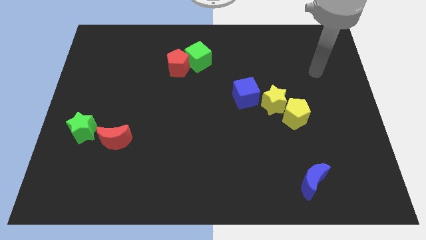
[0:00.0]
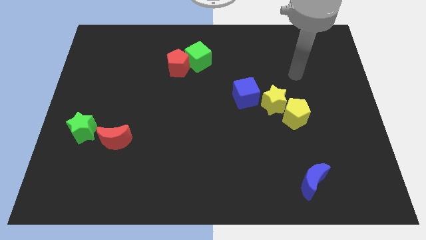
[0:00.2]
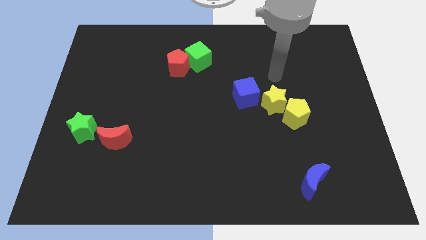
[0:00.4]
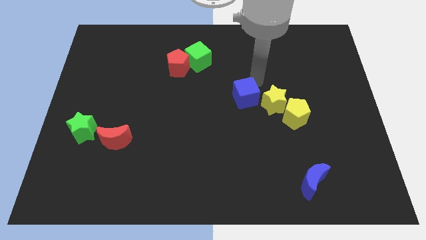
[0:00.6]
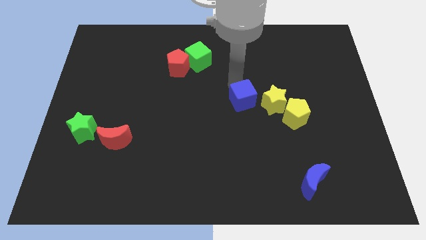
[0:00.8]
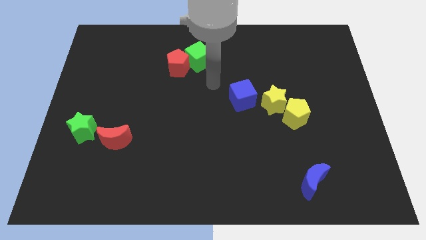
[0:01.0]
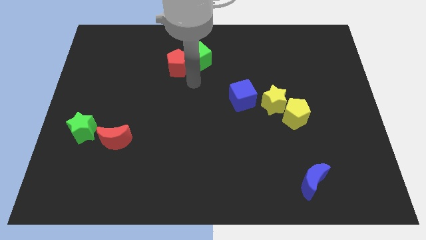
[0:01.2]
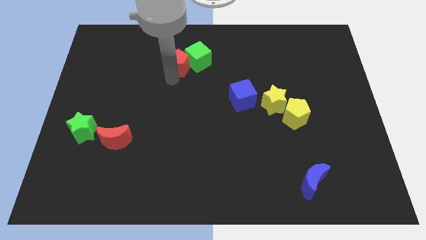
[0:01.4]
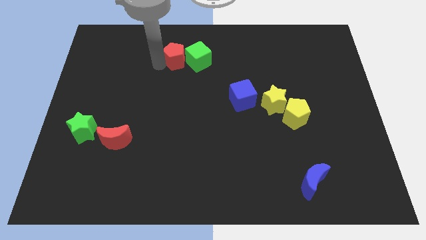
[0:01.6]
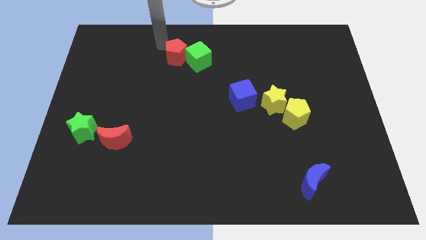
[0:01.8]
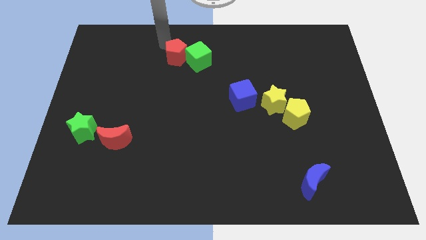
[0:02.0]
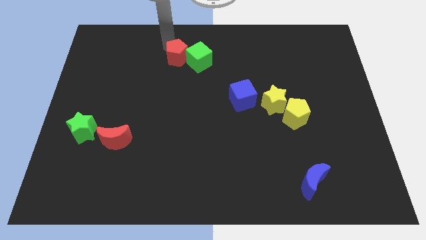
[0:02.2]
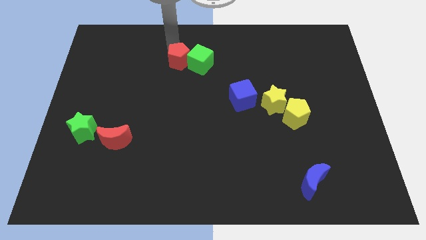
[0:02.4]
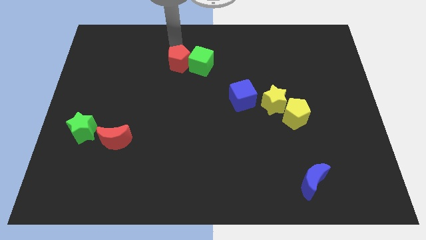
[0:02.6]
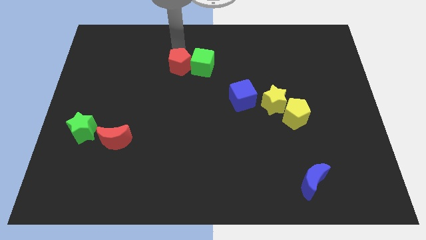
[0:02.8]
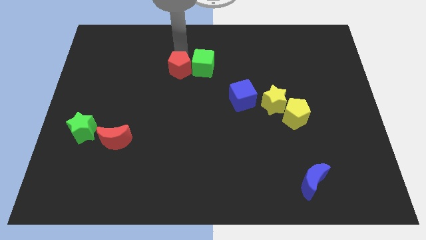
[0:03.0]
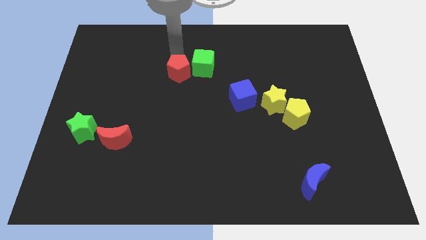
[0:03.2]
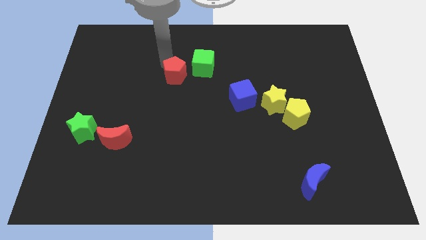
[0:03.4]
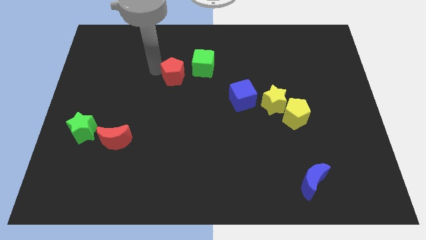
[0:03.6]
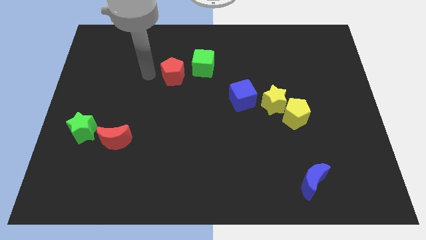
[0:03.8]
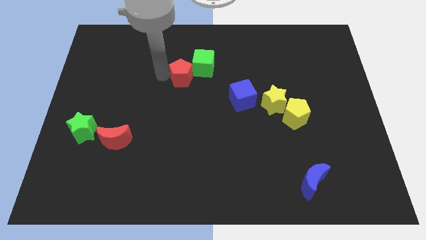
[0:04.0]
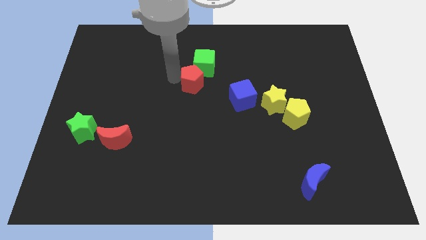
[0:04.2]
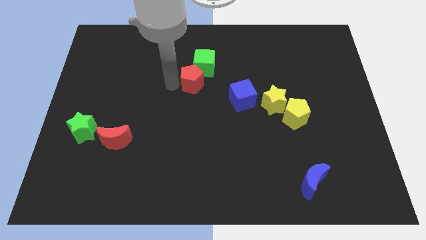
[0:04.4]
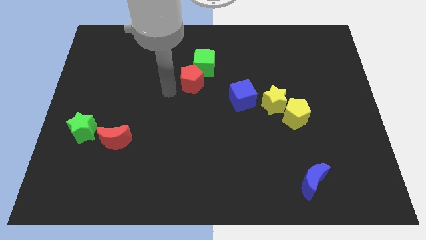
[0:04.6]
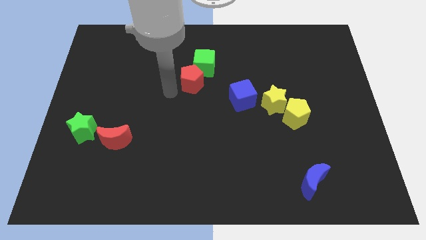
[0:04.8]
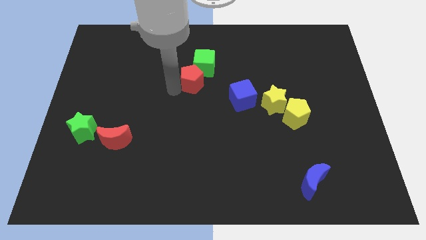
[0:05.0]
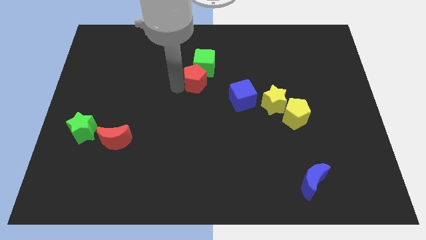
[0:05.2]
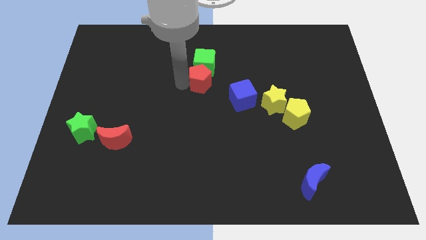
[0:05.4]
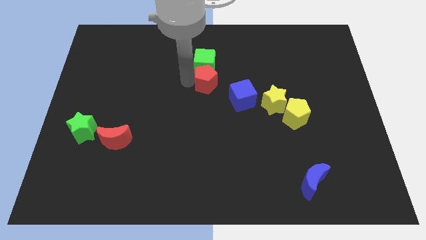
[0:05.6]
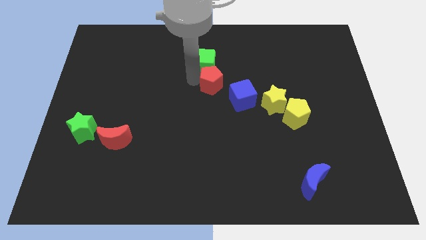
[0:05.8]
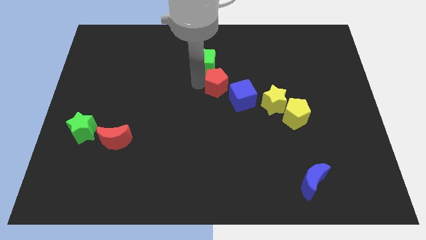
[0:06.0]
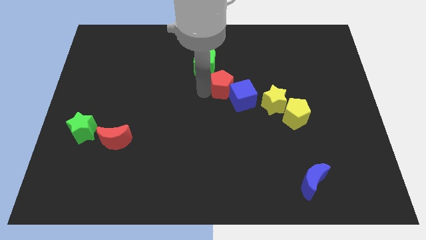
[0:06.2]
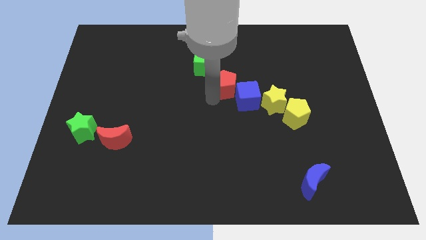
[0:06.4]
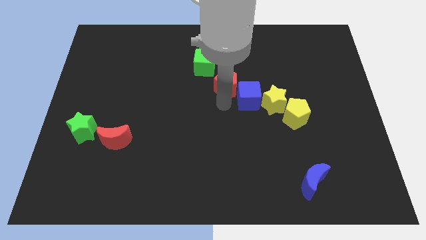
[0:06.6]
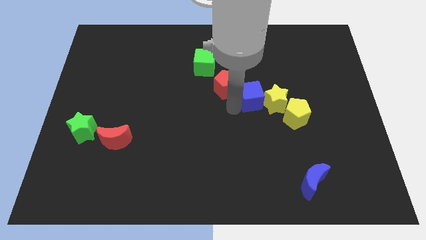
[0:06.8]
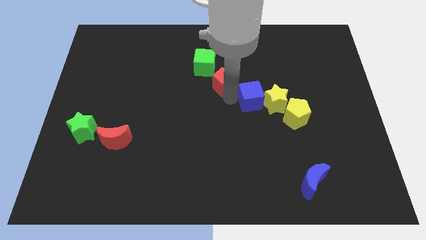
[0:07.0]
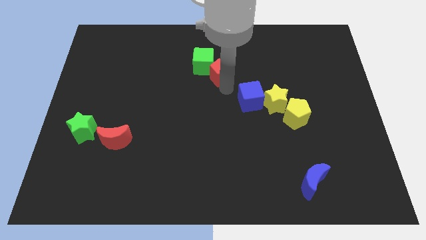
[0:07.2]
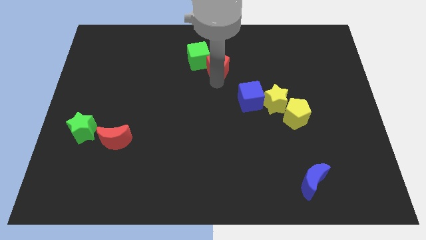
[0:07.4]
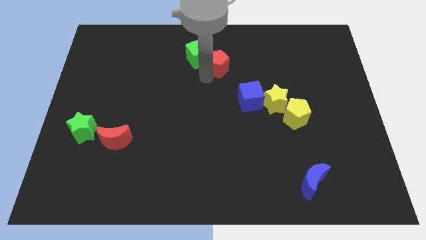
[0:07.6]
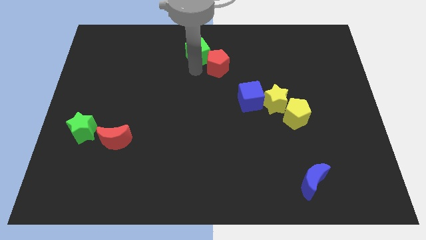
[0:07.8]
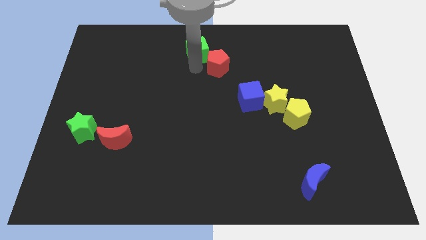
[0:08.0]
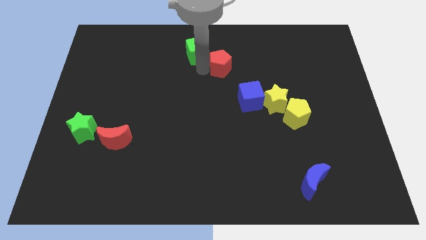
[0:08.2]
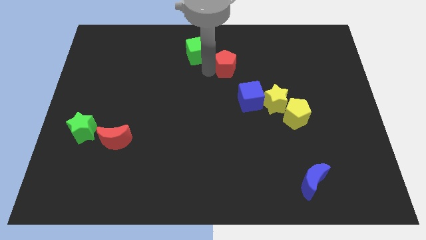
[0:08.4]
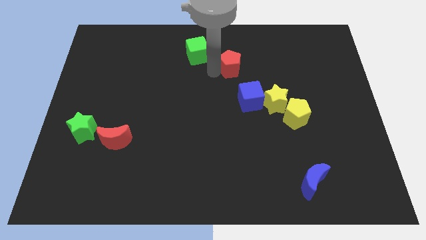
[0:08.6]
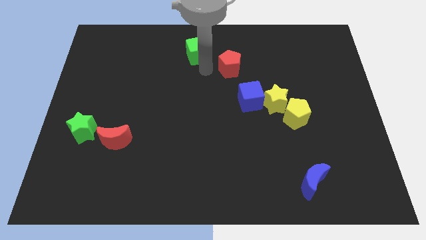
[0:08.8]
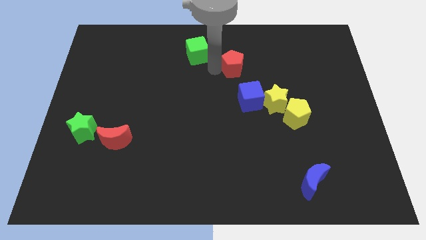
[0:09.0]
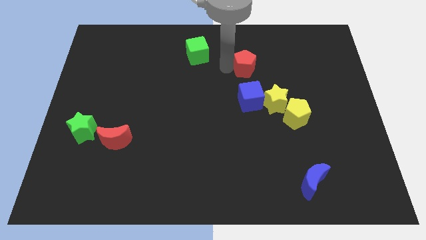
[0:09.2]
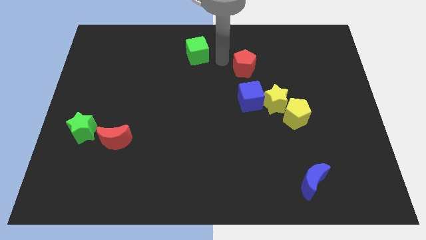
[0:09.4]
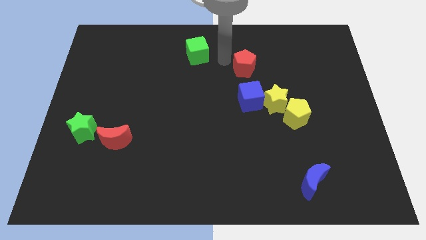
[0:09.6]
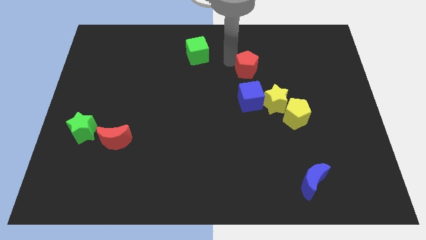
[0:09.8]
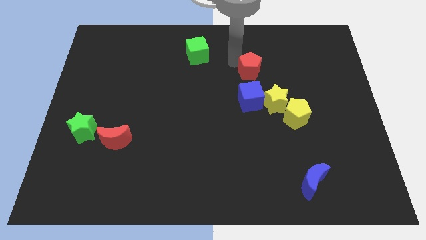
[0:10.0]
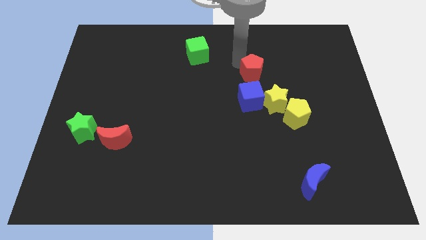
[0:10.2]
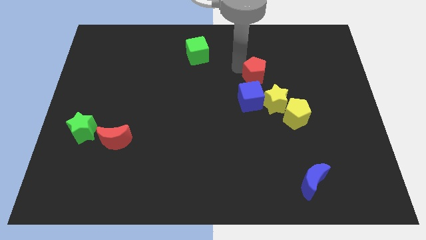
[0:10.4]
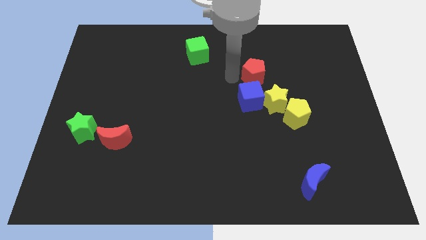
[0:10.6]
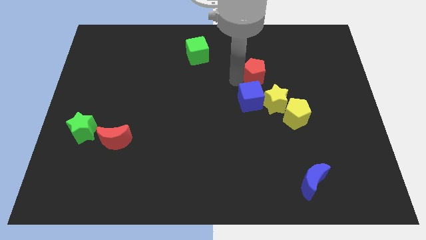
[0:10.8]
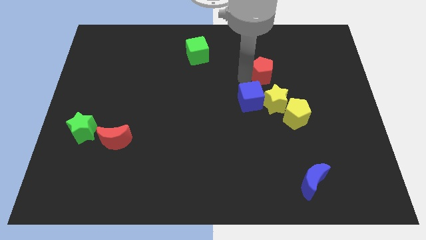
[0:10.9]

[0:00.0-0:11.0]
push the red pentagon to the right

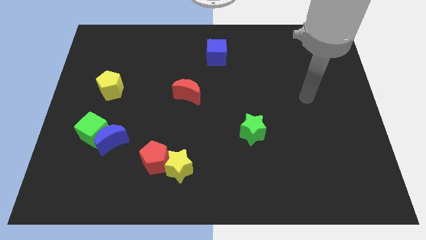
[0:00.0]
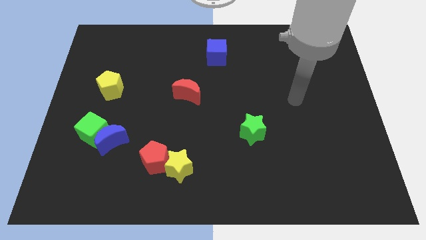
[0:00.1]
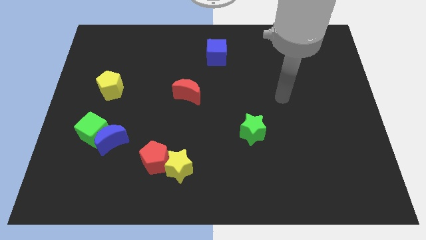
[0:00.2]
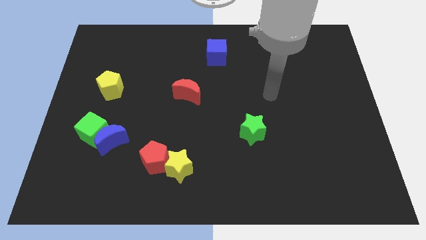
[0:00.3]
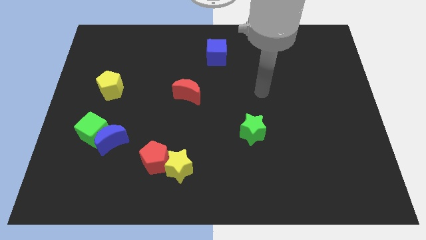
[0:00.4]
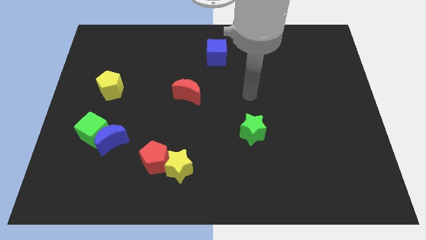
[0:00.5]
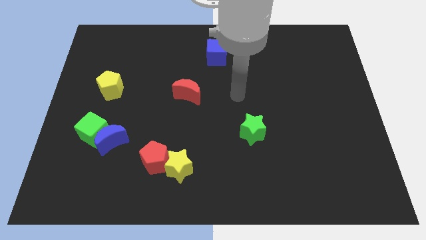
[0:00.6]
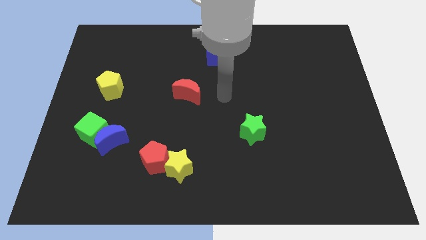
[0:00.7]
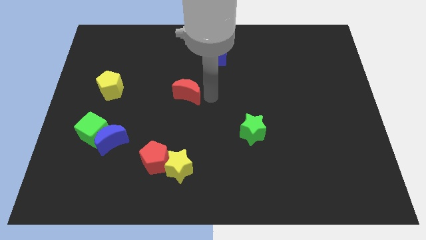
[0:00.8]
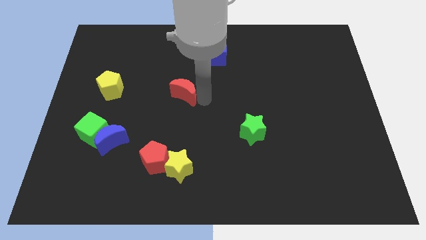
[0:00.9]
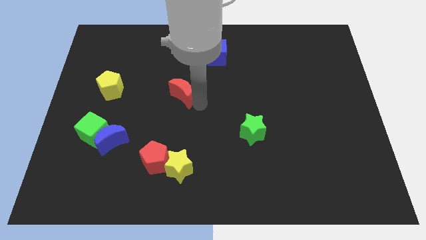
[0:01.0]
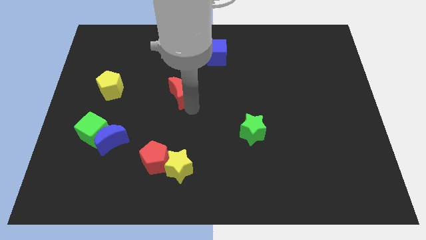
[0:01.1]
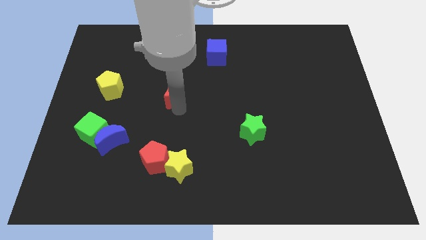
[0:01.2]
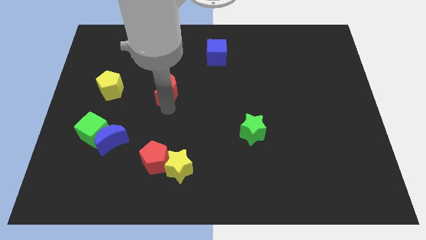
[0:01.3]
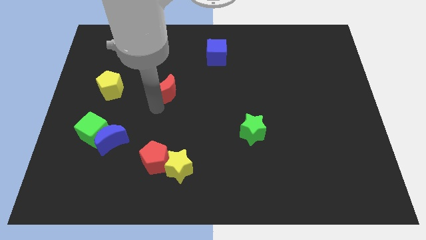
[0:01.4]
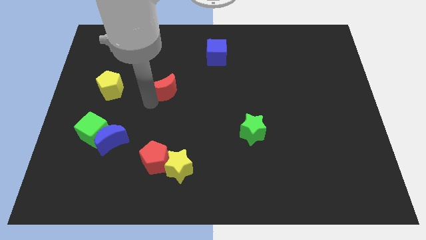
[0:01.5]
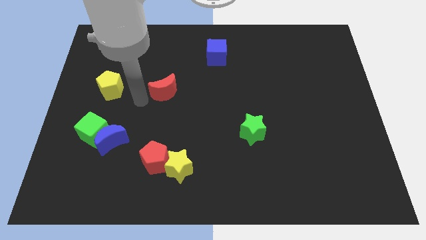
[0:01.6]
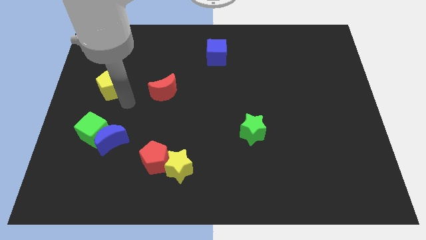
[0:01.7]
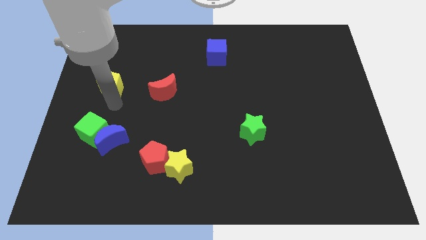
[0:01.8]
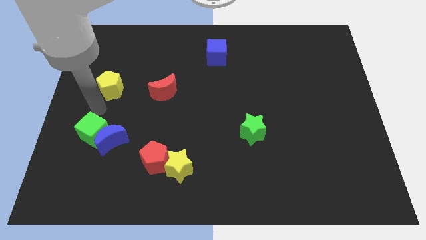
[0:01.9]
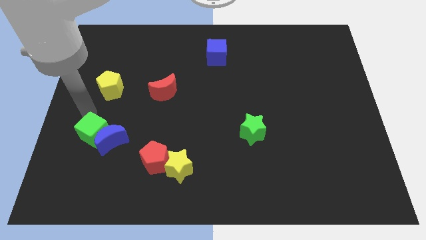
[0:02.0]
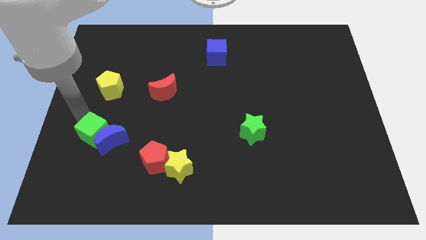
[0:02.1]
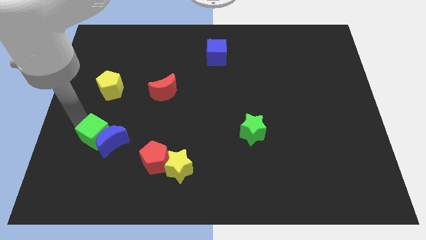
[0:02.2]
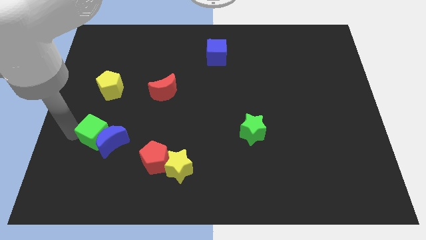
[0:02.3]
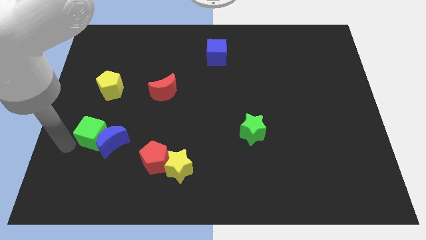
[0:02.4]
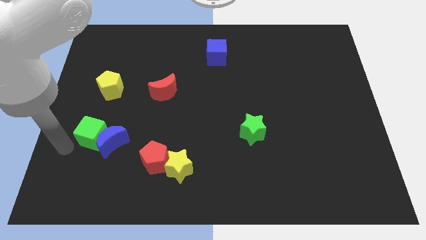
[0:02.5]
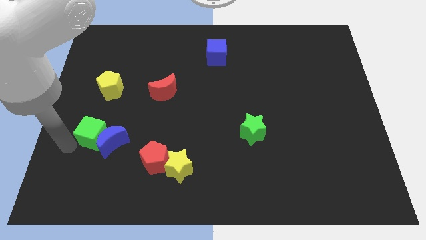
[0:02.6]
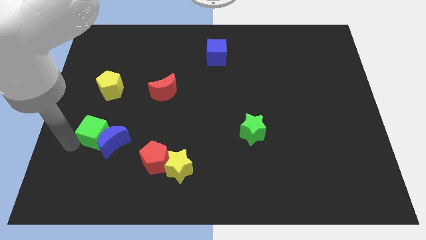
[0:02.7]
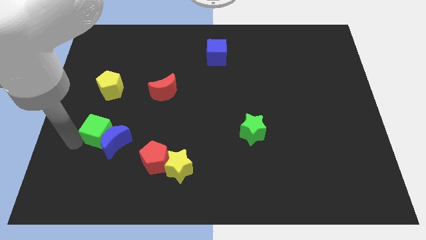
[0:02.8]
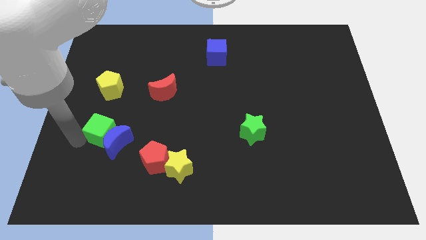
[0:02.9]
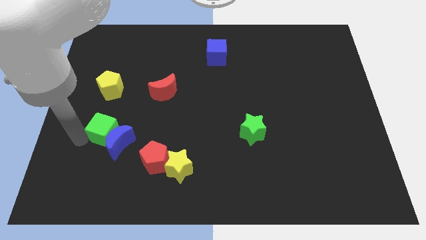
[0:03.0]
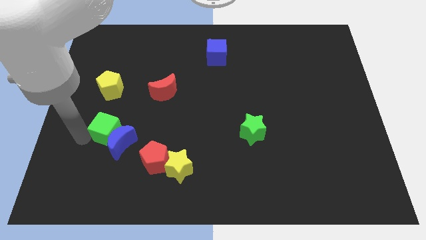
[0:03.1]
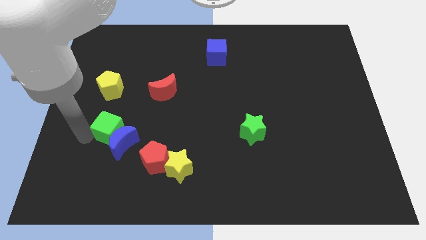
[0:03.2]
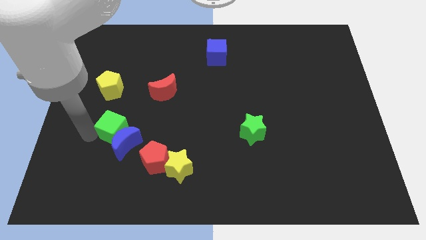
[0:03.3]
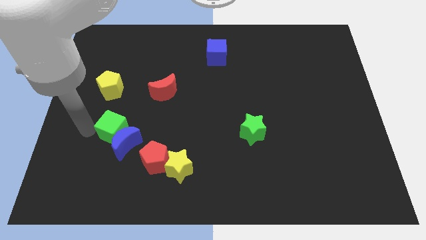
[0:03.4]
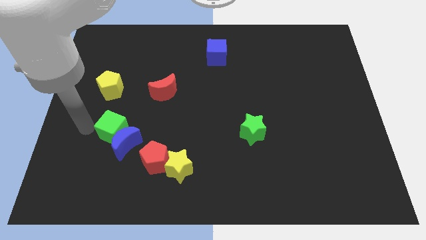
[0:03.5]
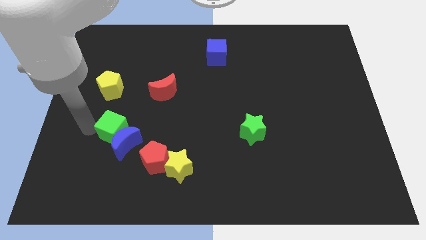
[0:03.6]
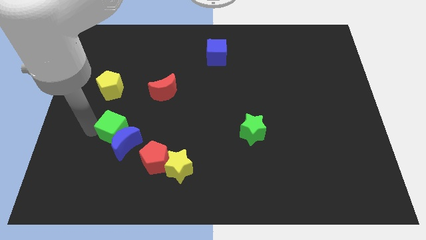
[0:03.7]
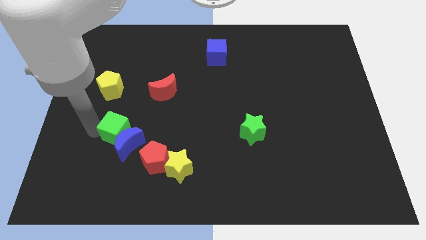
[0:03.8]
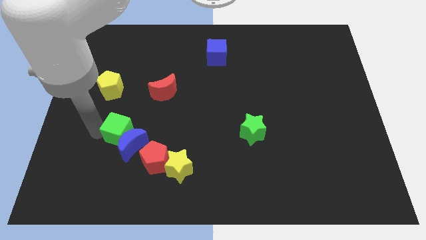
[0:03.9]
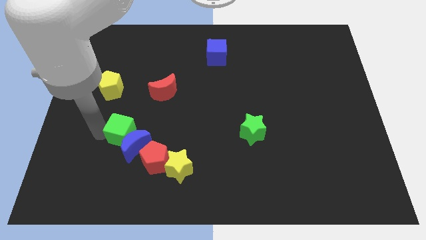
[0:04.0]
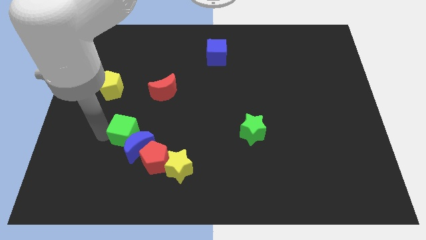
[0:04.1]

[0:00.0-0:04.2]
slide the green cube to the right somewhat
